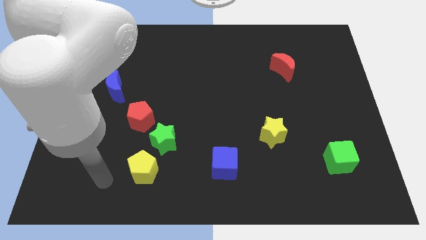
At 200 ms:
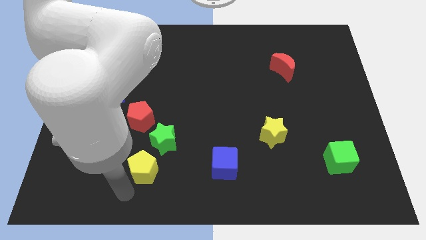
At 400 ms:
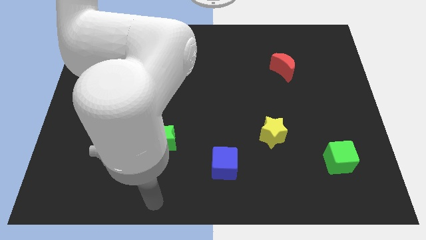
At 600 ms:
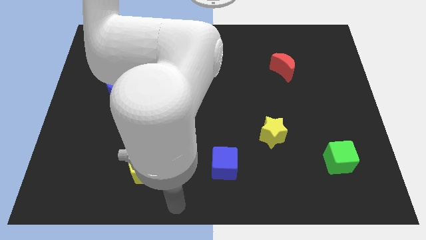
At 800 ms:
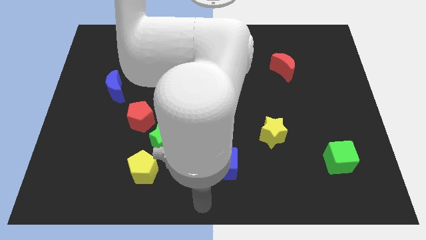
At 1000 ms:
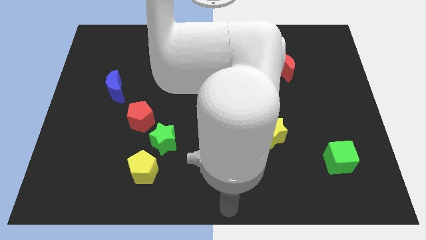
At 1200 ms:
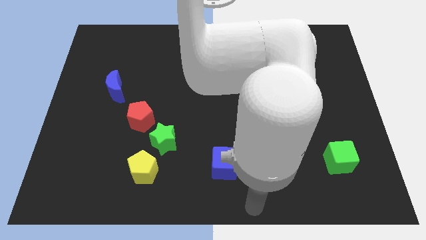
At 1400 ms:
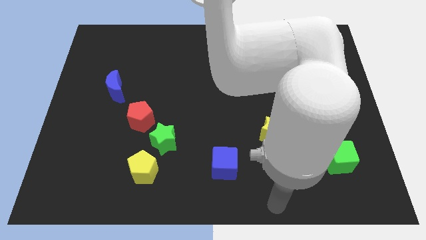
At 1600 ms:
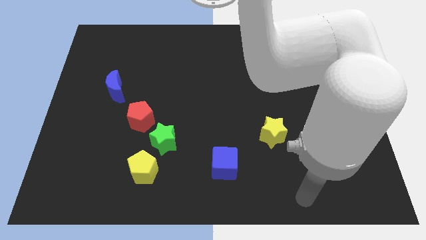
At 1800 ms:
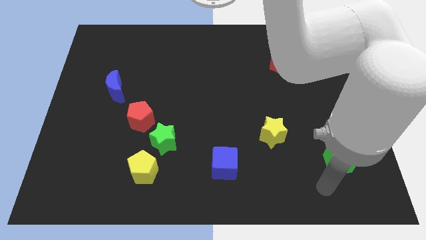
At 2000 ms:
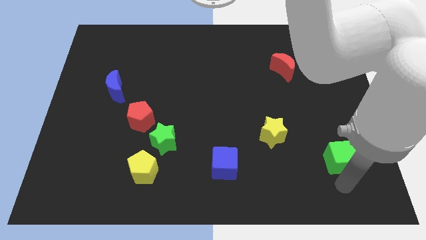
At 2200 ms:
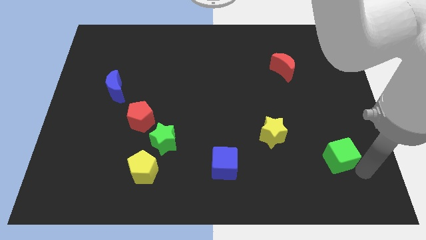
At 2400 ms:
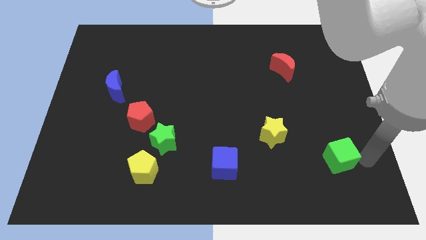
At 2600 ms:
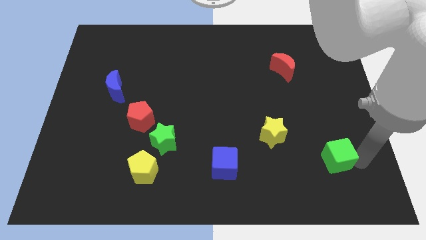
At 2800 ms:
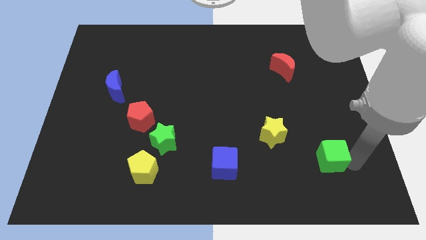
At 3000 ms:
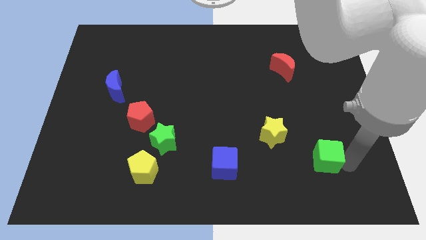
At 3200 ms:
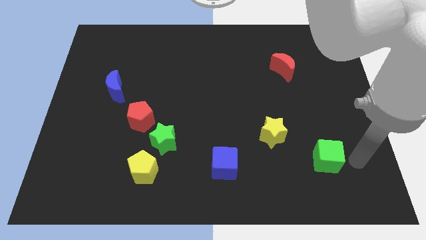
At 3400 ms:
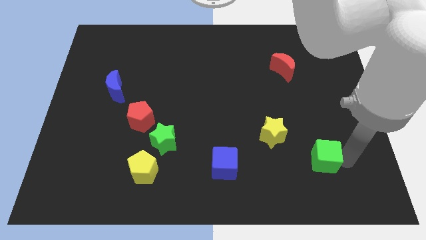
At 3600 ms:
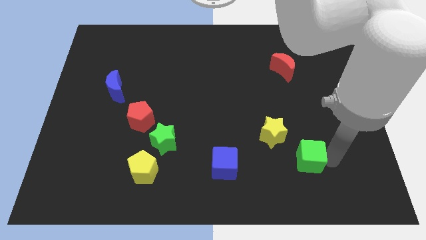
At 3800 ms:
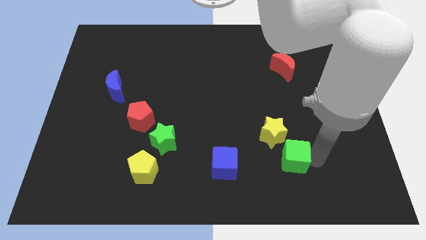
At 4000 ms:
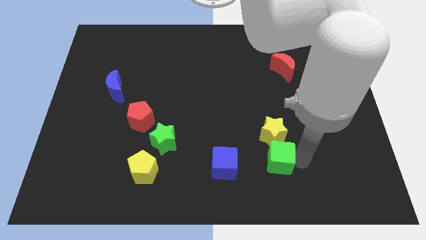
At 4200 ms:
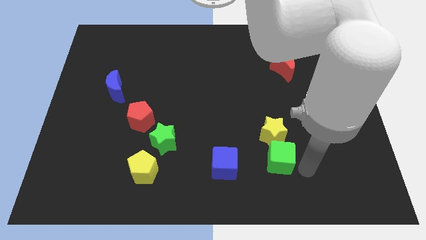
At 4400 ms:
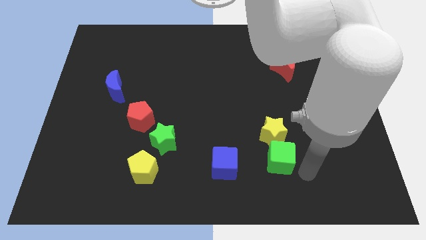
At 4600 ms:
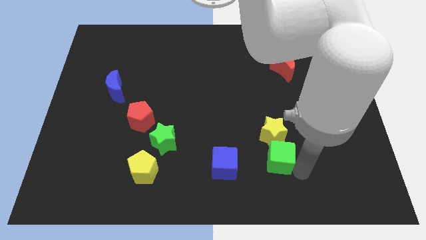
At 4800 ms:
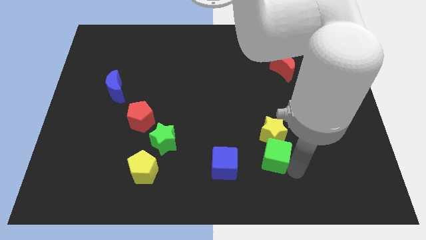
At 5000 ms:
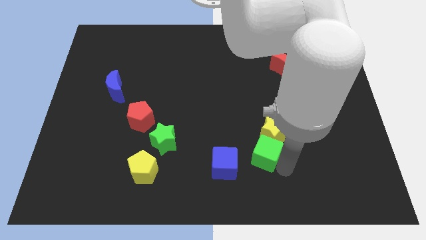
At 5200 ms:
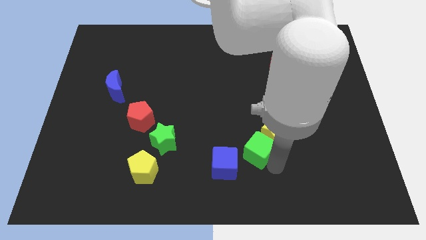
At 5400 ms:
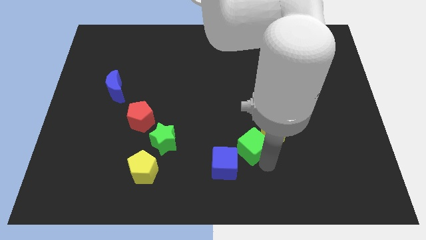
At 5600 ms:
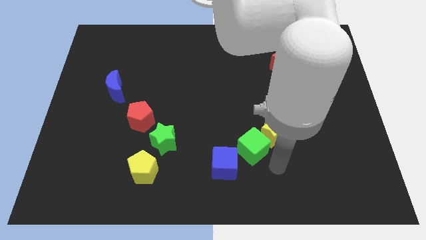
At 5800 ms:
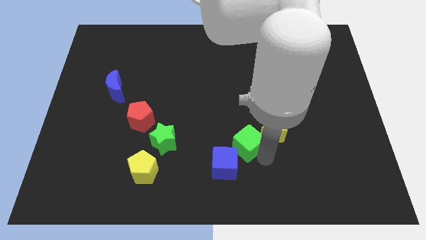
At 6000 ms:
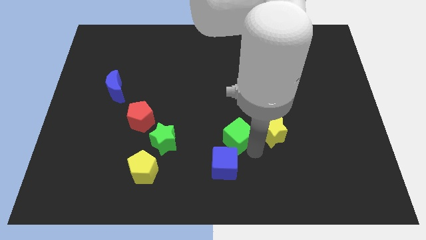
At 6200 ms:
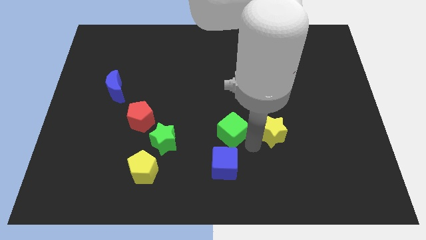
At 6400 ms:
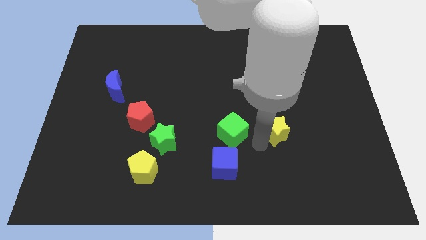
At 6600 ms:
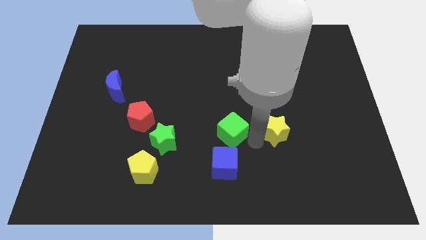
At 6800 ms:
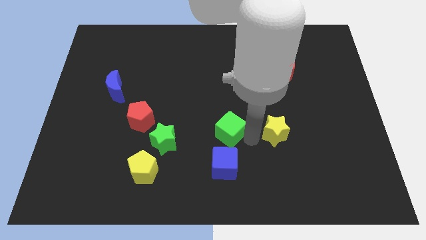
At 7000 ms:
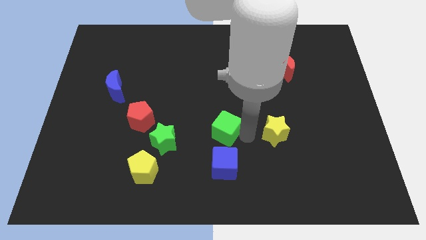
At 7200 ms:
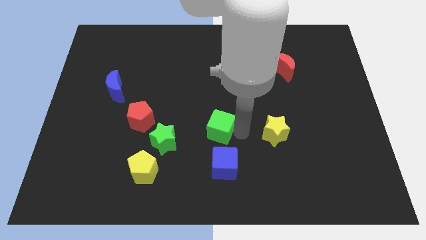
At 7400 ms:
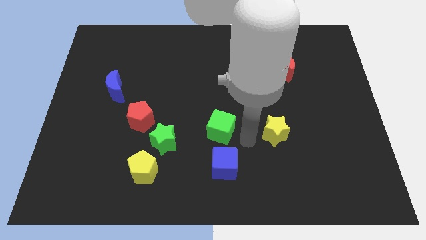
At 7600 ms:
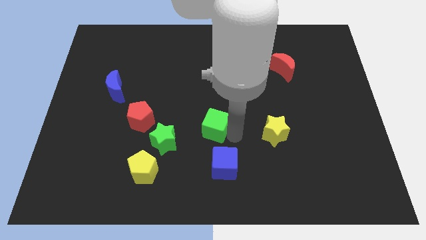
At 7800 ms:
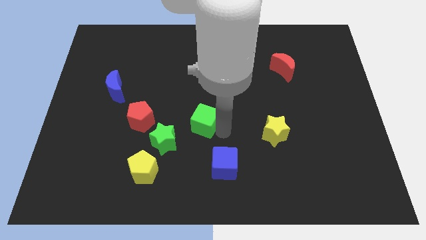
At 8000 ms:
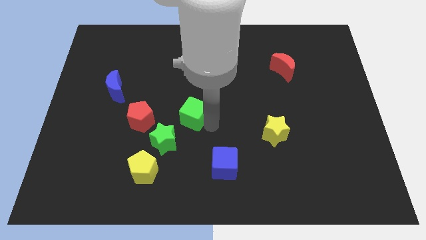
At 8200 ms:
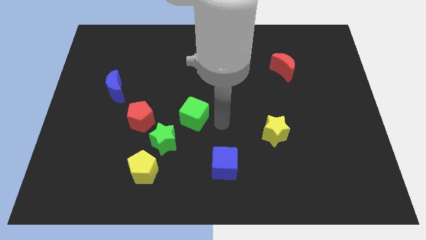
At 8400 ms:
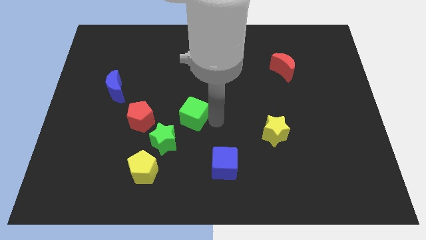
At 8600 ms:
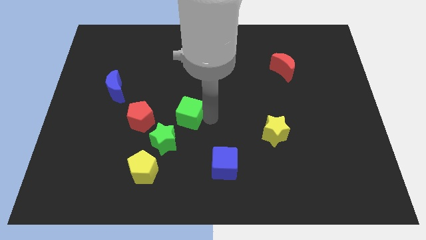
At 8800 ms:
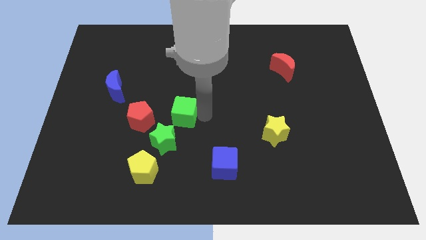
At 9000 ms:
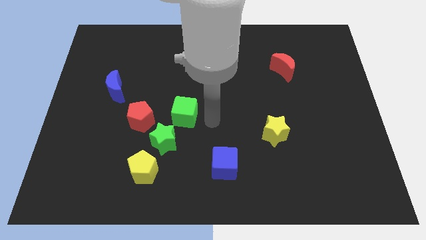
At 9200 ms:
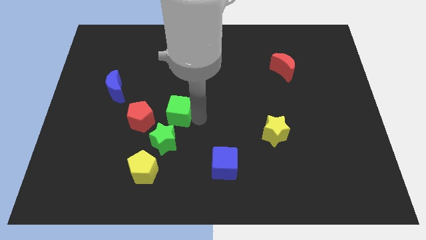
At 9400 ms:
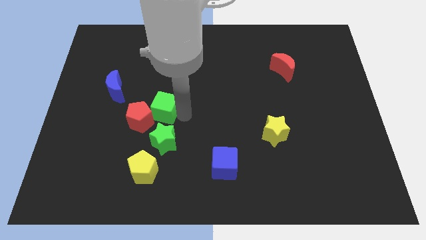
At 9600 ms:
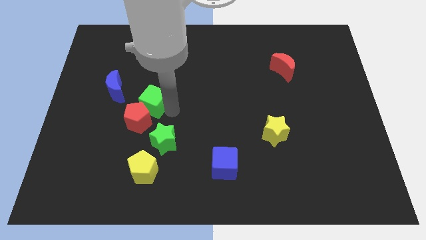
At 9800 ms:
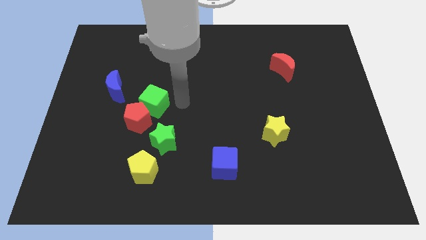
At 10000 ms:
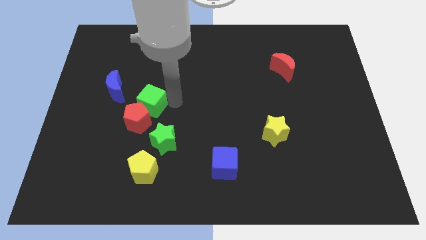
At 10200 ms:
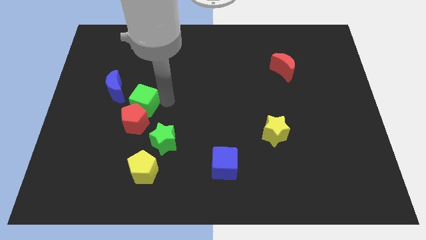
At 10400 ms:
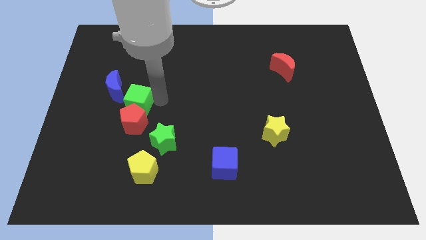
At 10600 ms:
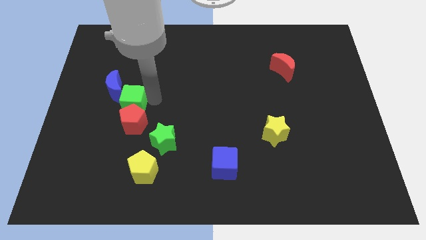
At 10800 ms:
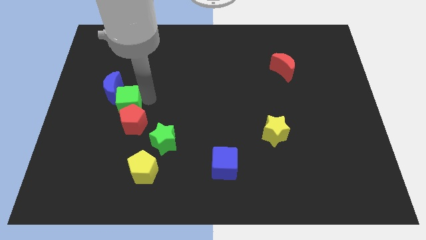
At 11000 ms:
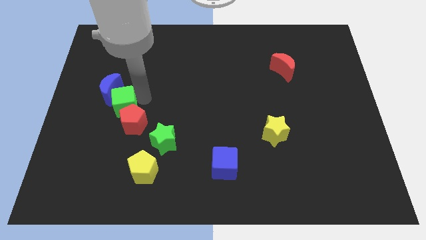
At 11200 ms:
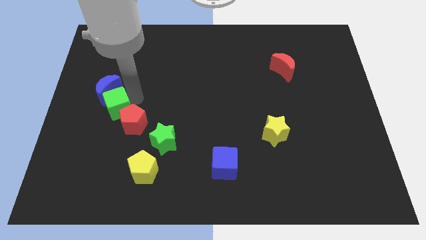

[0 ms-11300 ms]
put the green cube to the left of the red pentagon
